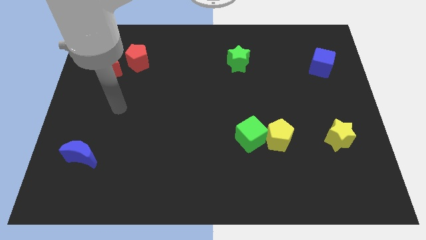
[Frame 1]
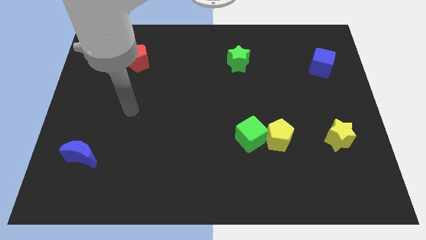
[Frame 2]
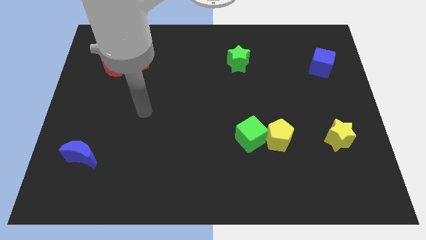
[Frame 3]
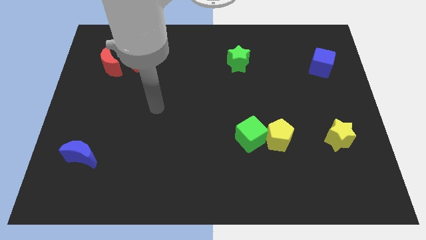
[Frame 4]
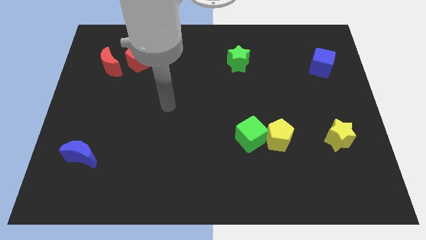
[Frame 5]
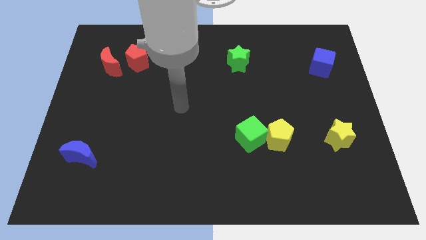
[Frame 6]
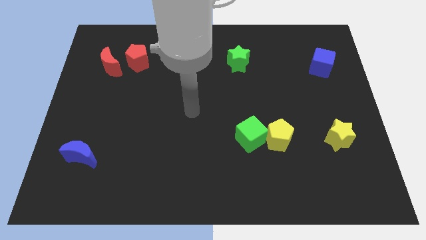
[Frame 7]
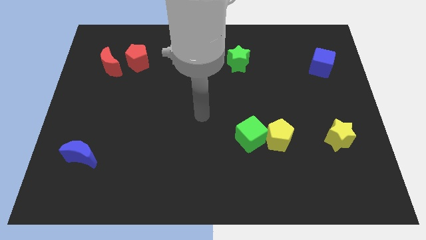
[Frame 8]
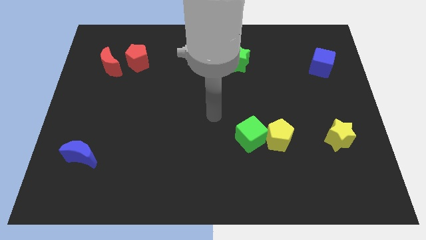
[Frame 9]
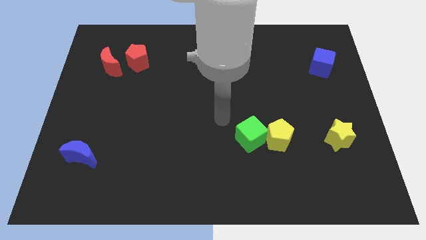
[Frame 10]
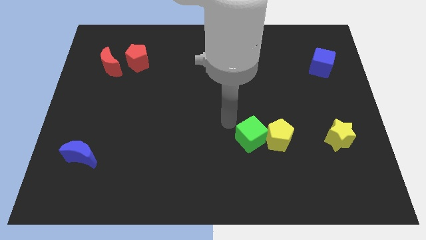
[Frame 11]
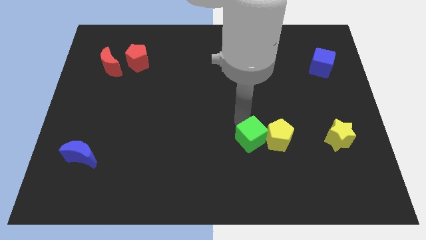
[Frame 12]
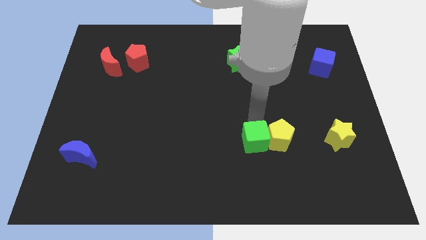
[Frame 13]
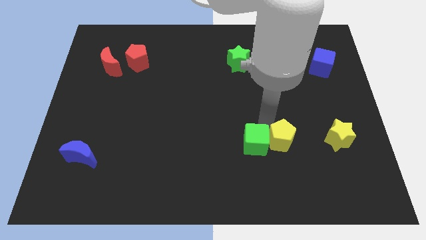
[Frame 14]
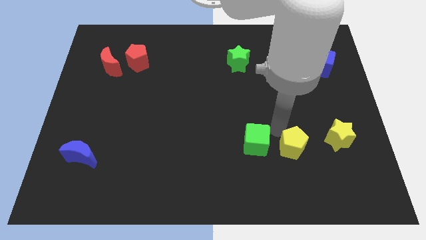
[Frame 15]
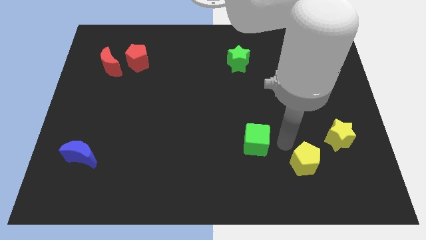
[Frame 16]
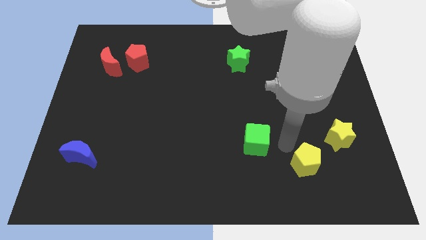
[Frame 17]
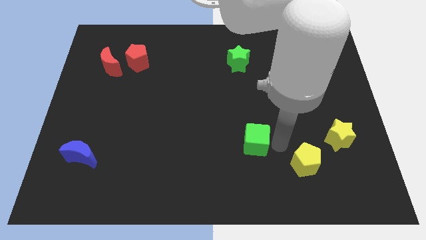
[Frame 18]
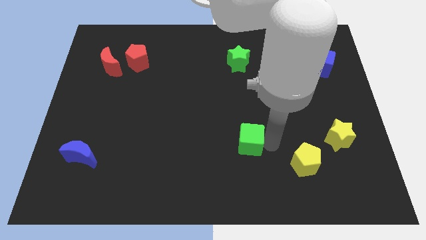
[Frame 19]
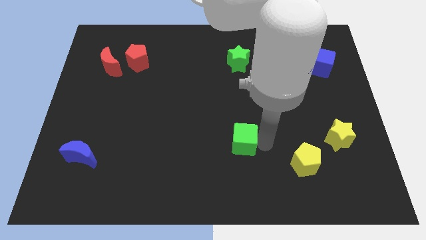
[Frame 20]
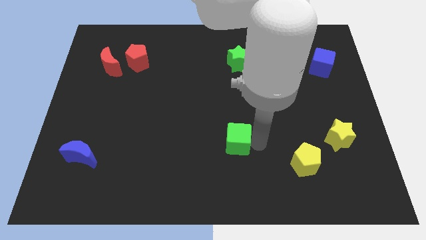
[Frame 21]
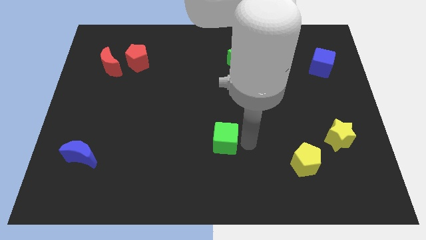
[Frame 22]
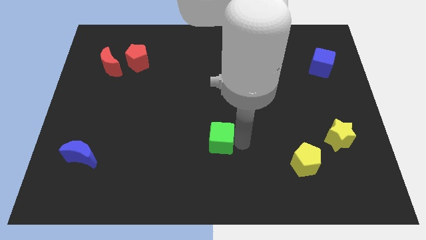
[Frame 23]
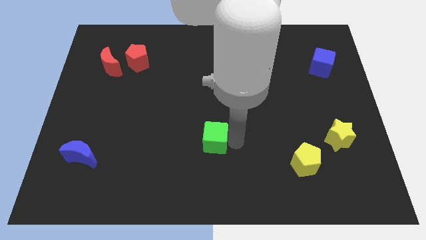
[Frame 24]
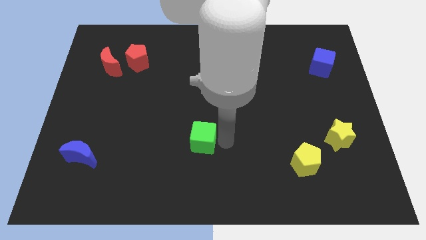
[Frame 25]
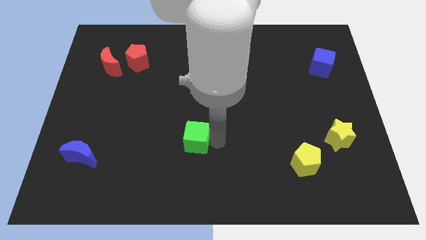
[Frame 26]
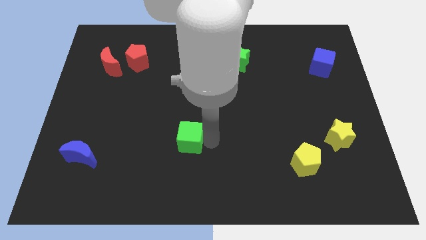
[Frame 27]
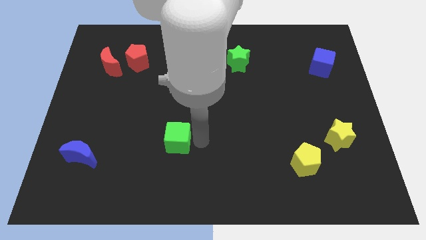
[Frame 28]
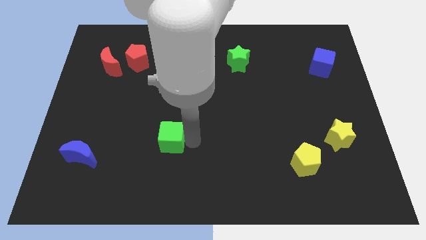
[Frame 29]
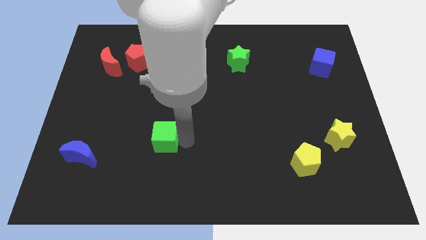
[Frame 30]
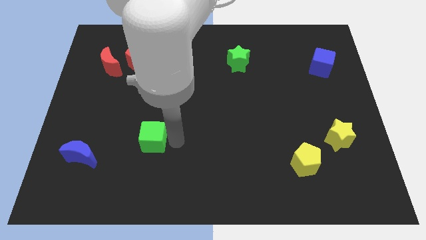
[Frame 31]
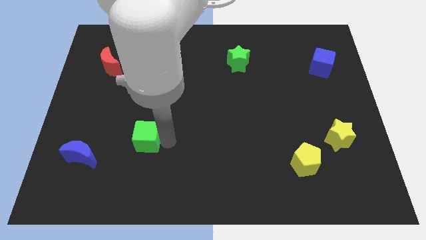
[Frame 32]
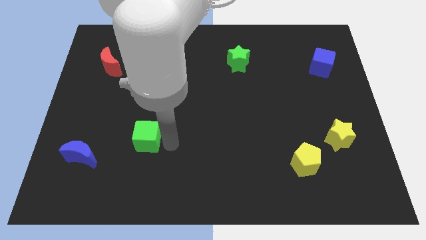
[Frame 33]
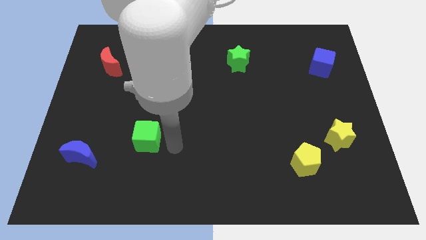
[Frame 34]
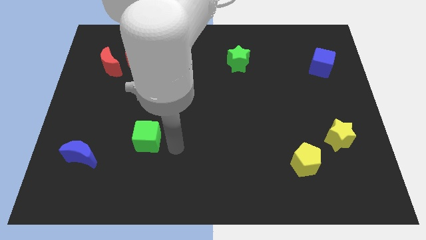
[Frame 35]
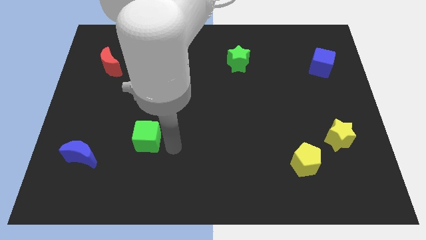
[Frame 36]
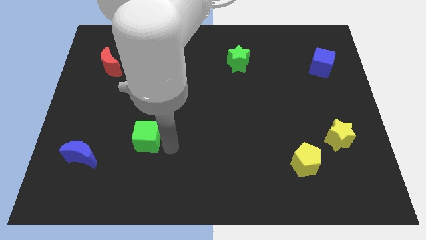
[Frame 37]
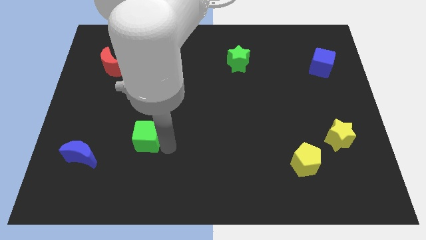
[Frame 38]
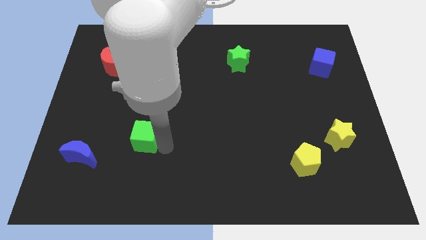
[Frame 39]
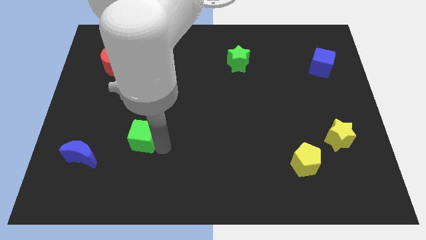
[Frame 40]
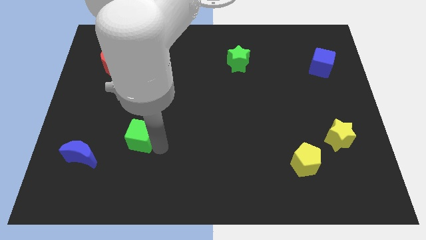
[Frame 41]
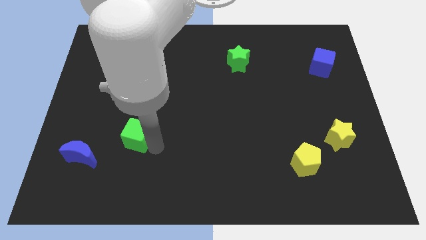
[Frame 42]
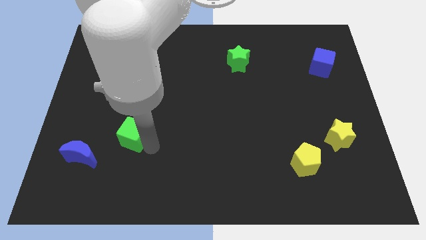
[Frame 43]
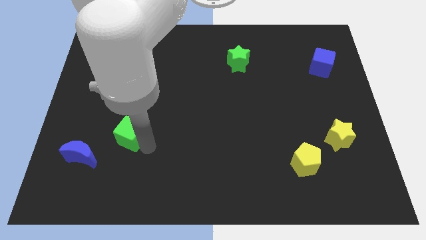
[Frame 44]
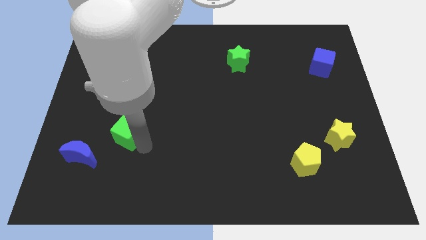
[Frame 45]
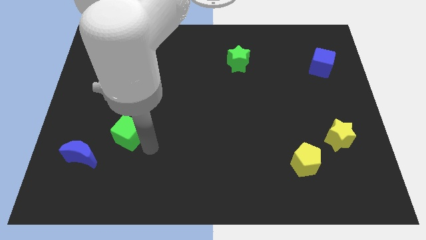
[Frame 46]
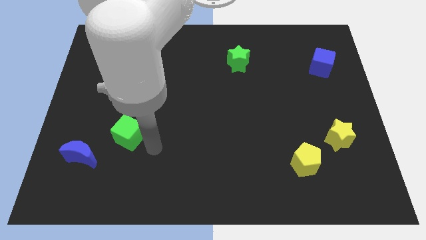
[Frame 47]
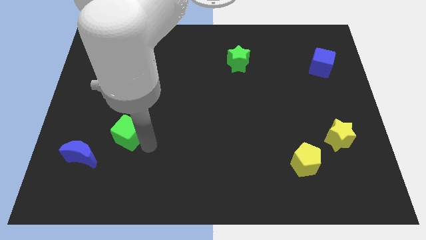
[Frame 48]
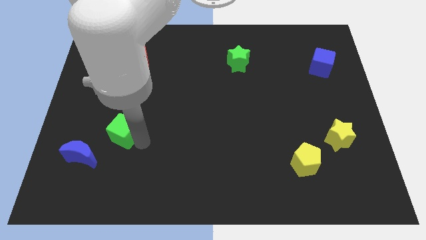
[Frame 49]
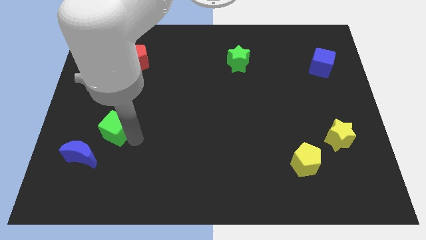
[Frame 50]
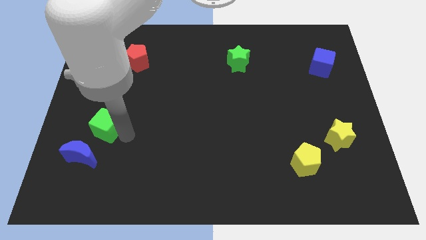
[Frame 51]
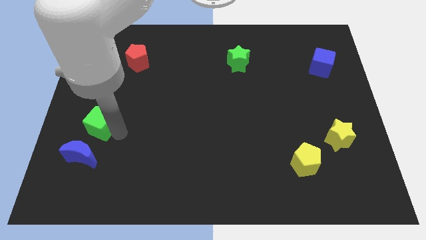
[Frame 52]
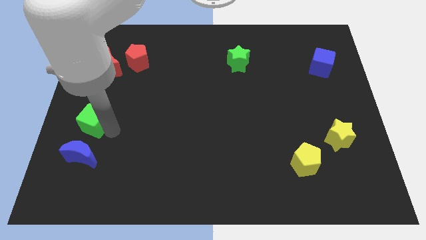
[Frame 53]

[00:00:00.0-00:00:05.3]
slide the green cube to the left side

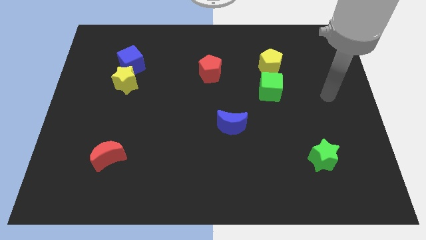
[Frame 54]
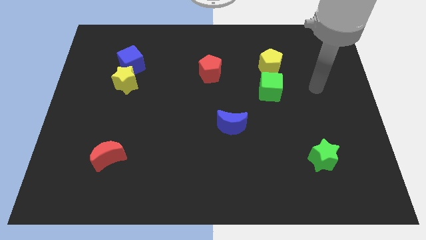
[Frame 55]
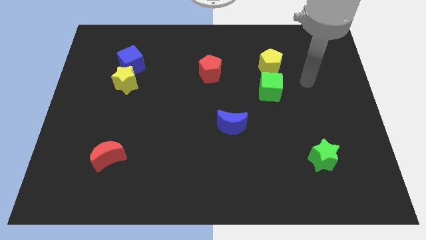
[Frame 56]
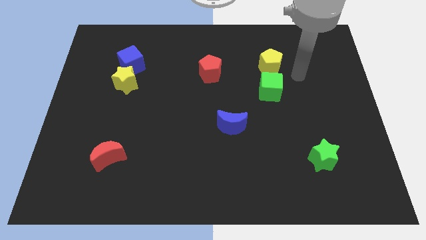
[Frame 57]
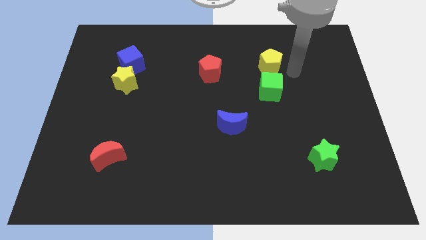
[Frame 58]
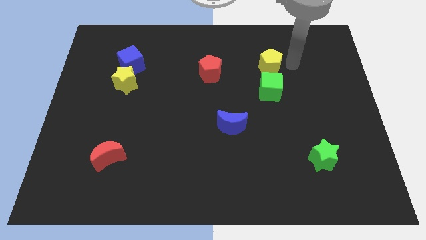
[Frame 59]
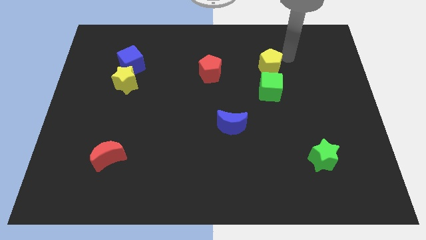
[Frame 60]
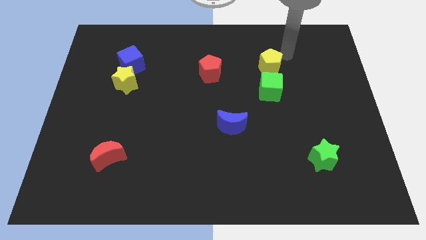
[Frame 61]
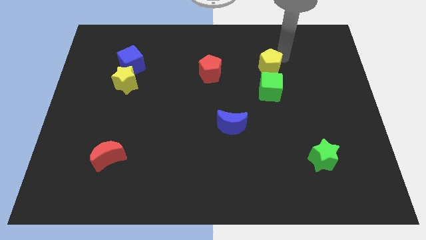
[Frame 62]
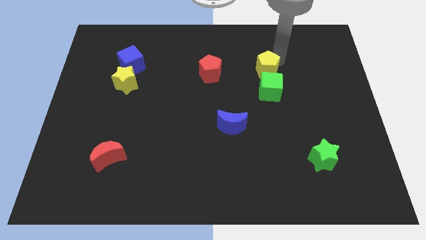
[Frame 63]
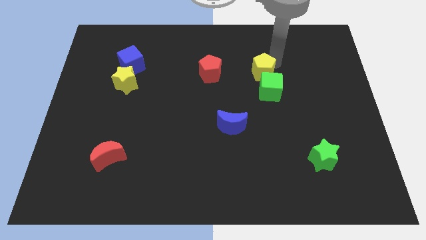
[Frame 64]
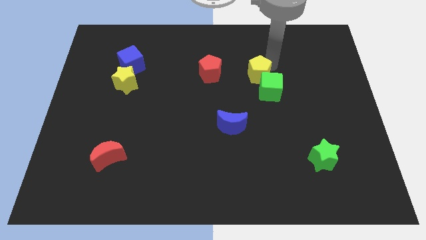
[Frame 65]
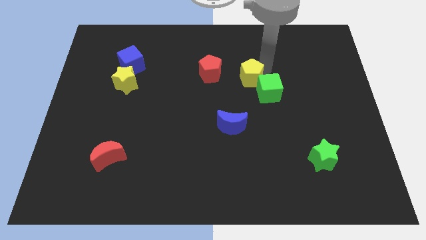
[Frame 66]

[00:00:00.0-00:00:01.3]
put the yellow pentagon to the middle of the board
